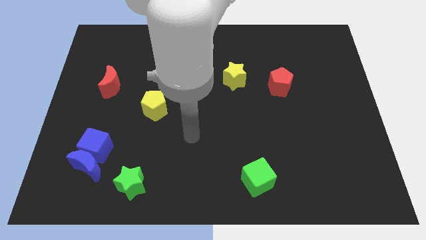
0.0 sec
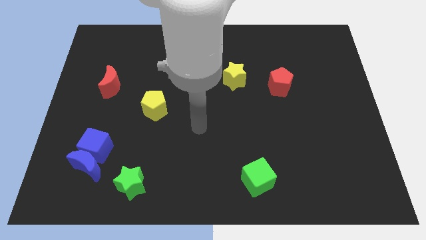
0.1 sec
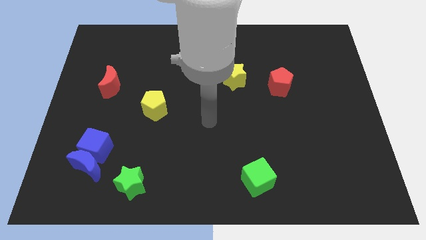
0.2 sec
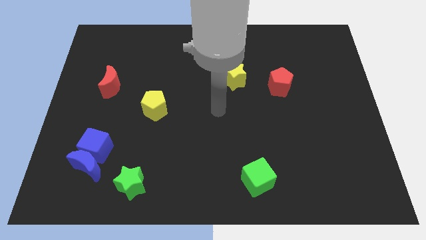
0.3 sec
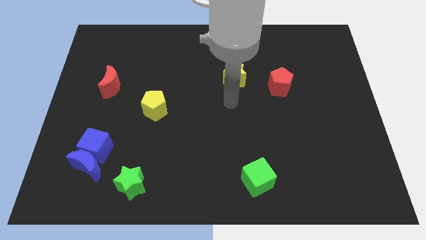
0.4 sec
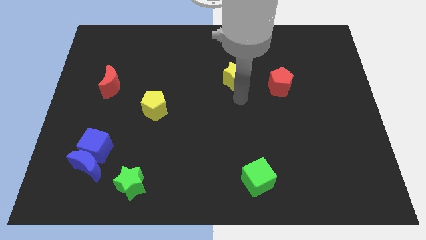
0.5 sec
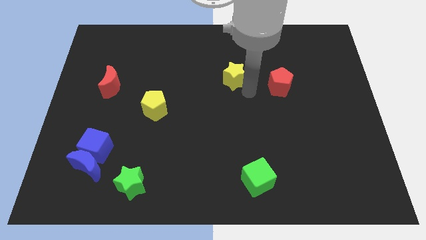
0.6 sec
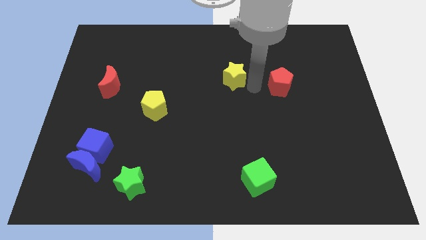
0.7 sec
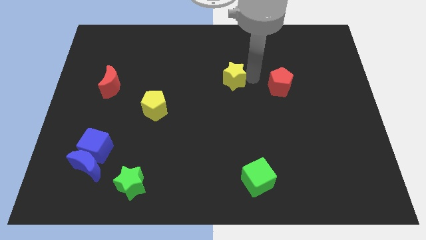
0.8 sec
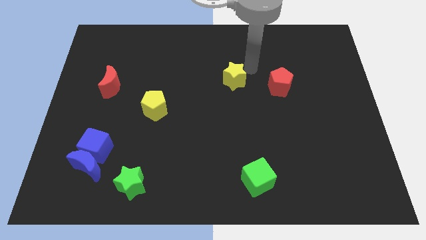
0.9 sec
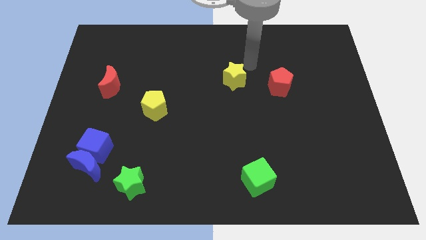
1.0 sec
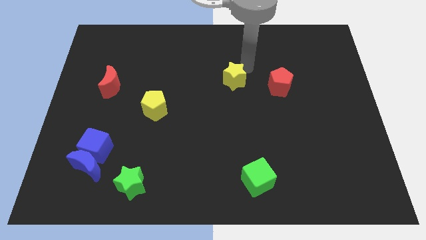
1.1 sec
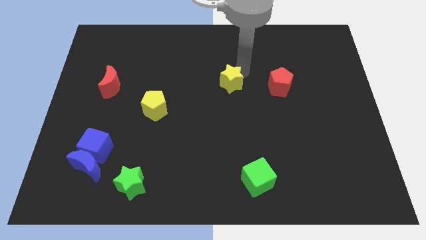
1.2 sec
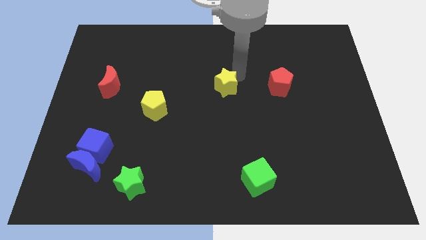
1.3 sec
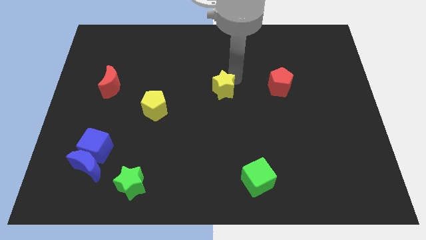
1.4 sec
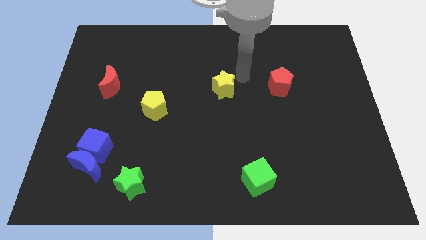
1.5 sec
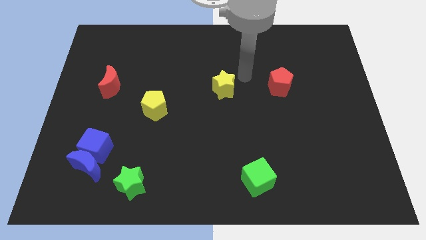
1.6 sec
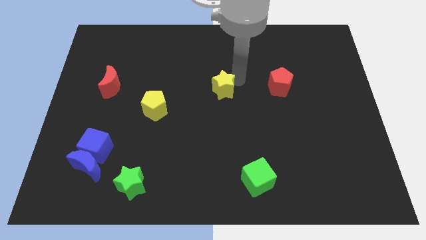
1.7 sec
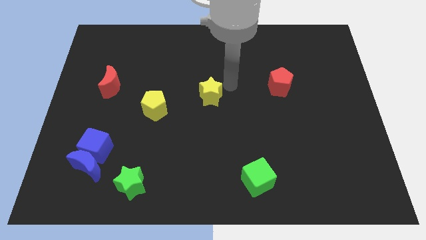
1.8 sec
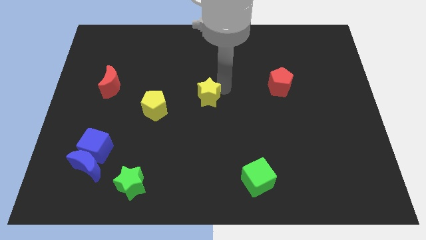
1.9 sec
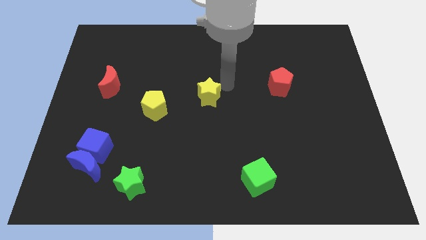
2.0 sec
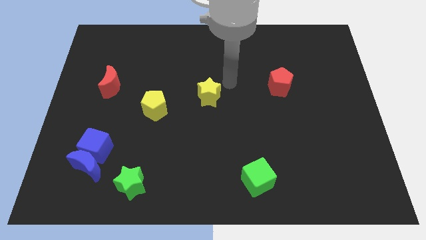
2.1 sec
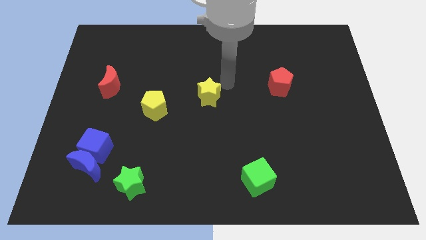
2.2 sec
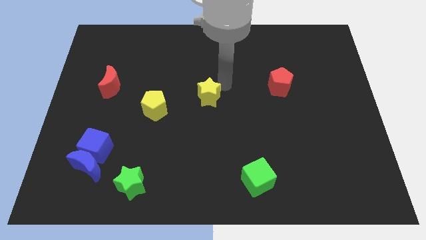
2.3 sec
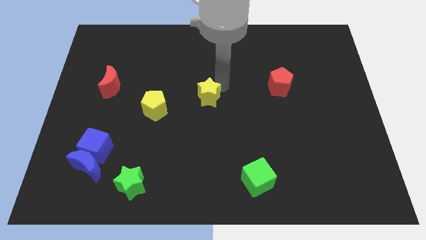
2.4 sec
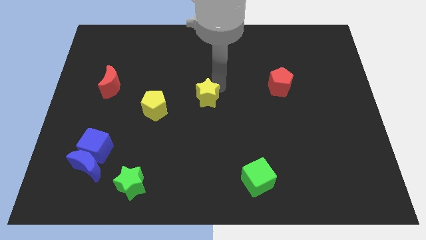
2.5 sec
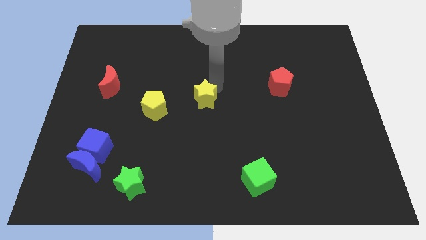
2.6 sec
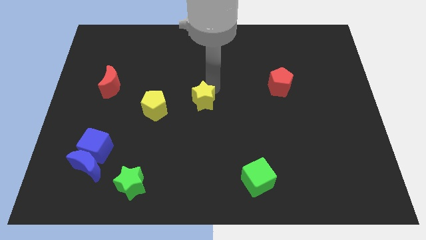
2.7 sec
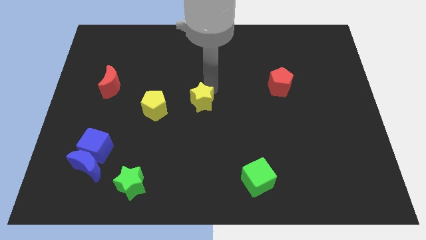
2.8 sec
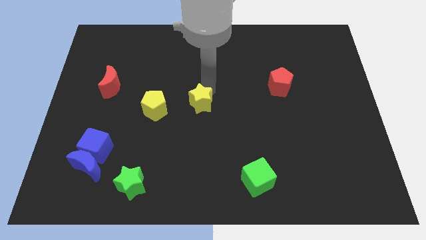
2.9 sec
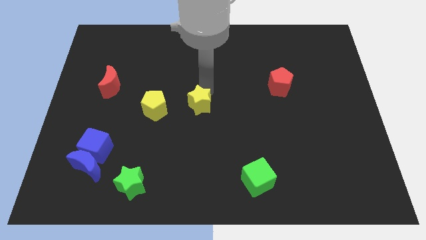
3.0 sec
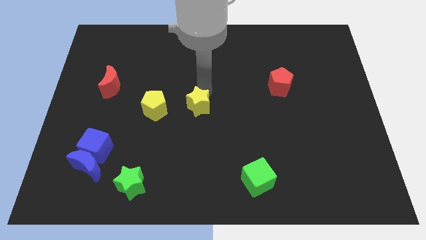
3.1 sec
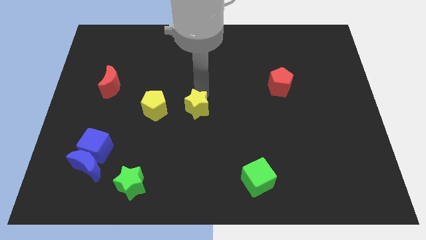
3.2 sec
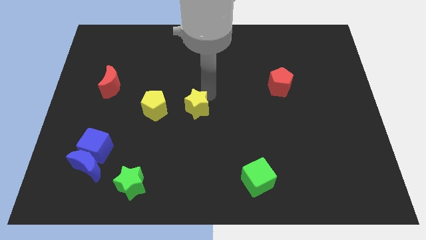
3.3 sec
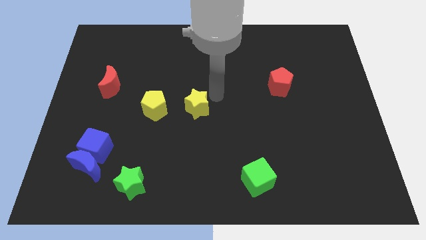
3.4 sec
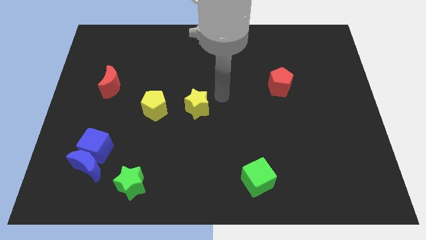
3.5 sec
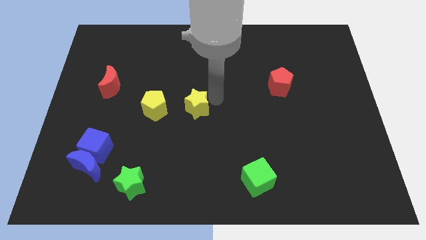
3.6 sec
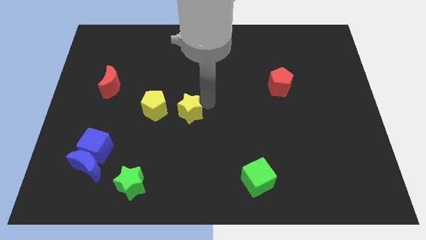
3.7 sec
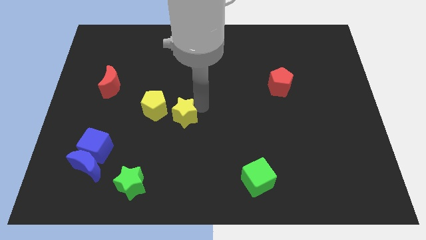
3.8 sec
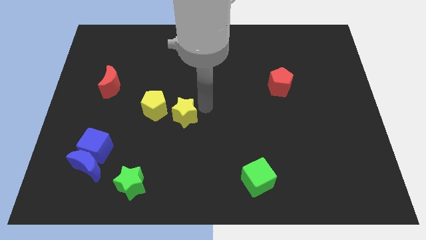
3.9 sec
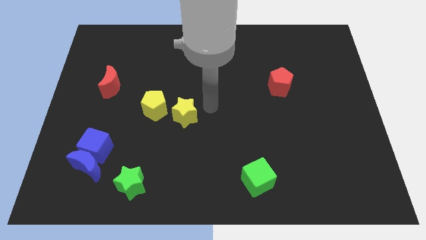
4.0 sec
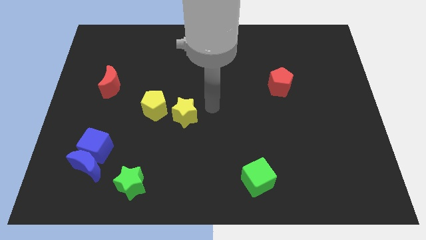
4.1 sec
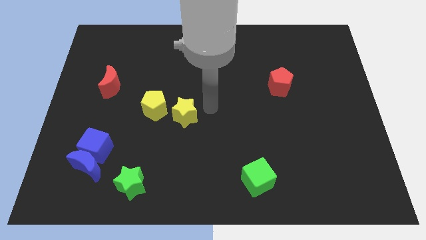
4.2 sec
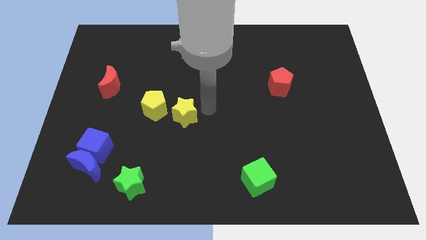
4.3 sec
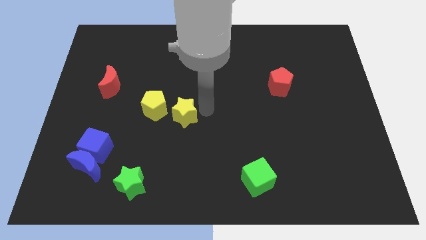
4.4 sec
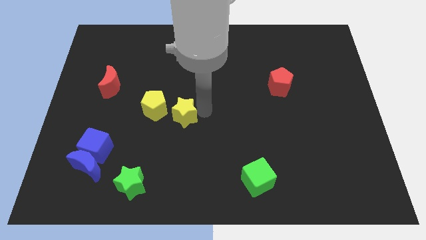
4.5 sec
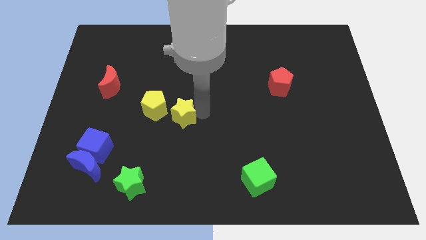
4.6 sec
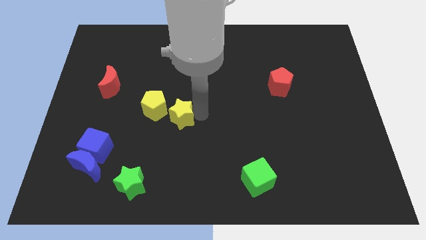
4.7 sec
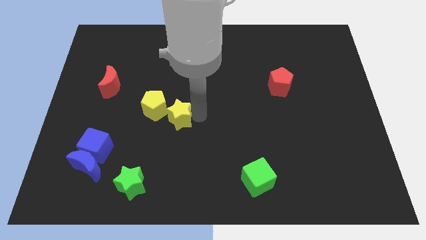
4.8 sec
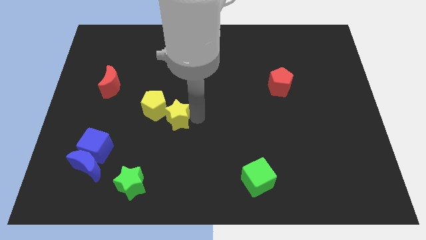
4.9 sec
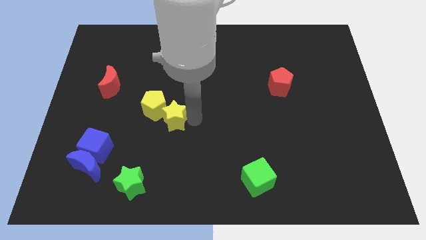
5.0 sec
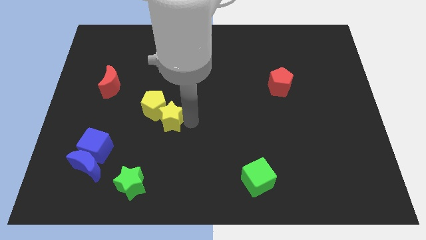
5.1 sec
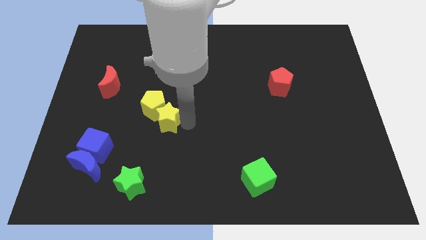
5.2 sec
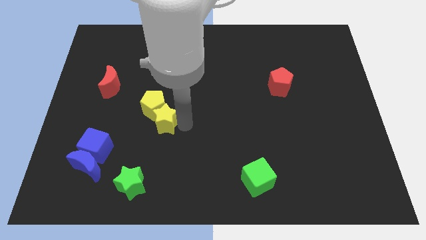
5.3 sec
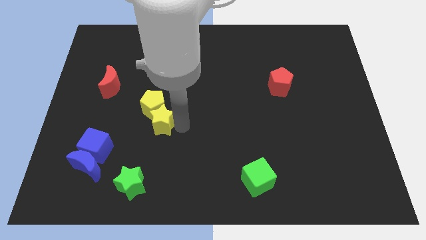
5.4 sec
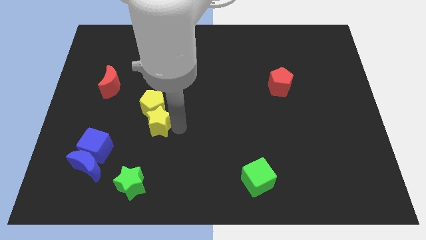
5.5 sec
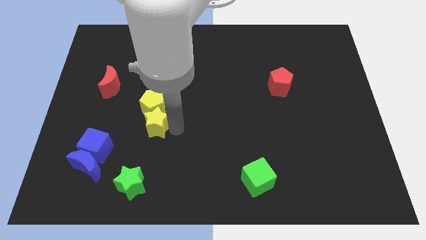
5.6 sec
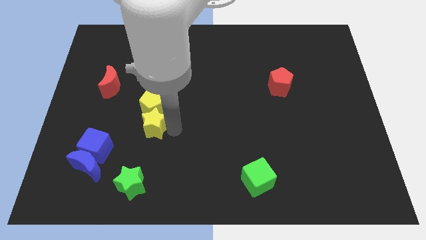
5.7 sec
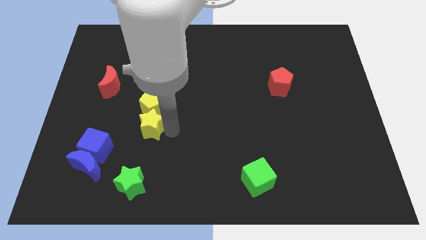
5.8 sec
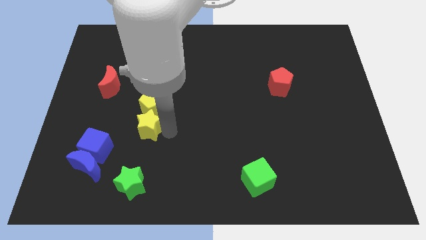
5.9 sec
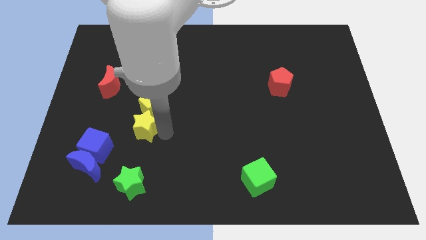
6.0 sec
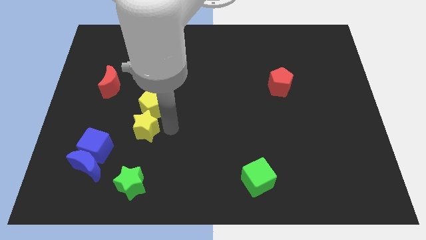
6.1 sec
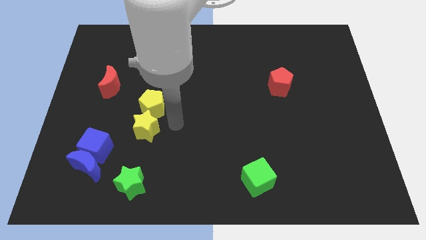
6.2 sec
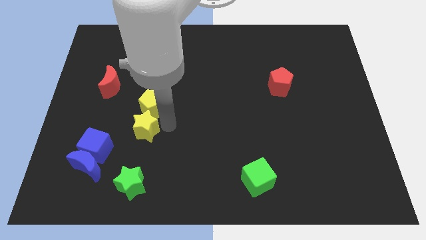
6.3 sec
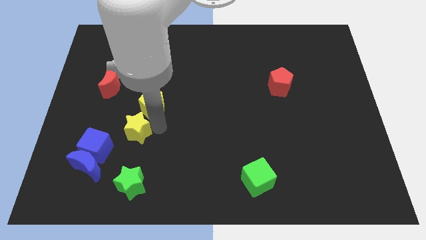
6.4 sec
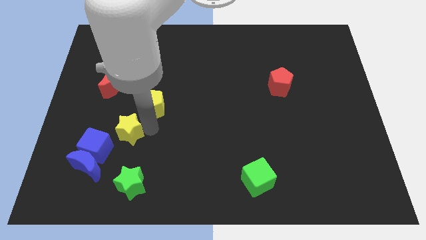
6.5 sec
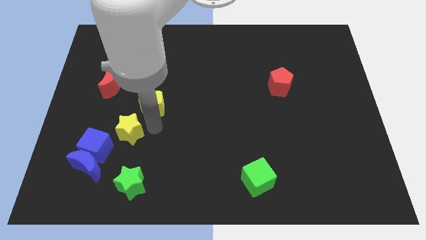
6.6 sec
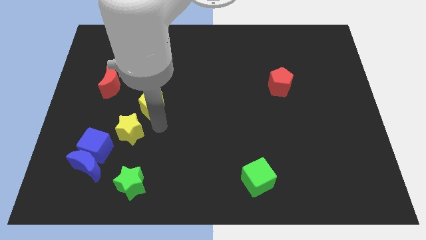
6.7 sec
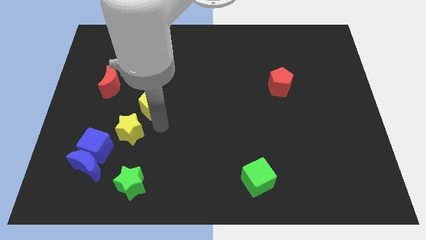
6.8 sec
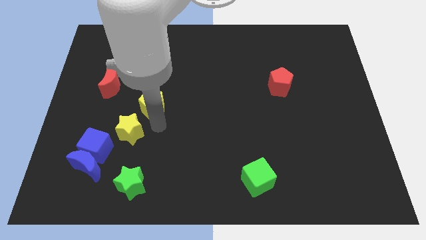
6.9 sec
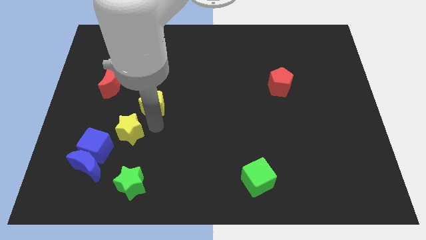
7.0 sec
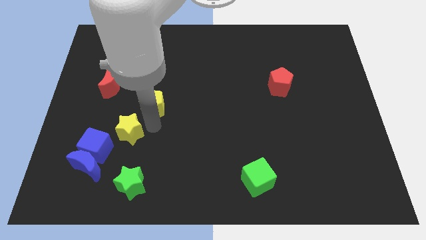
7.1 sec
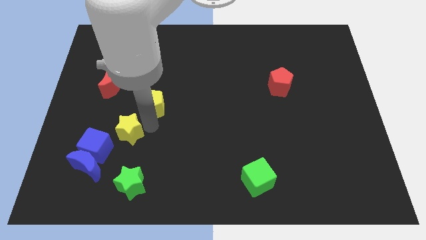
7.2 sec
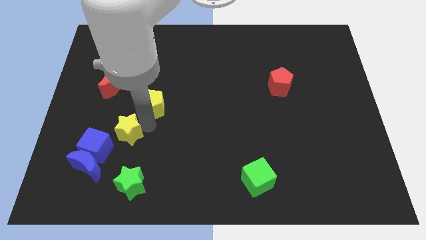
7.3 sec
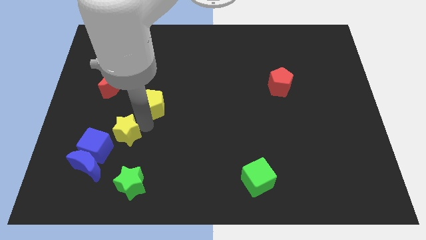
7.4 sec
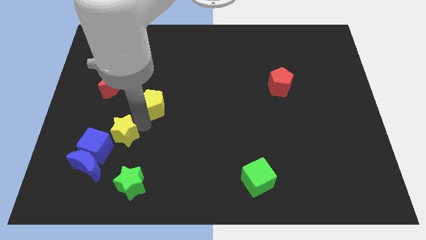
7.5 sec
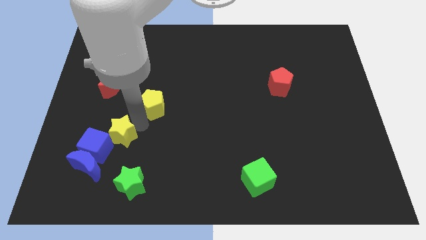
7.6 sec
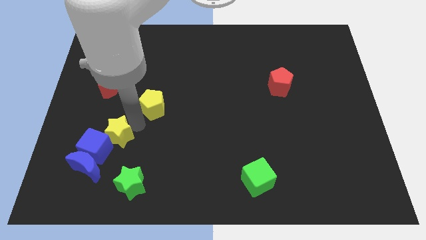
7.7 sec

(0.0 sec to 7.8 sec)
move the yellow star to the blue cube
